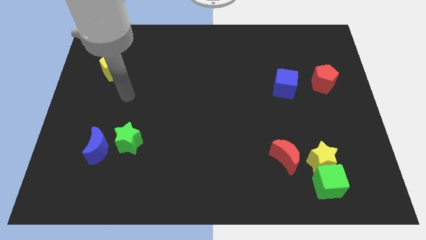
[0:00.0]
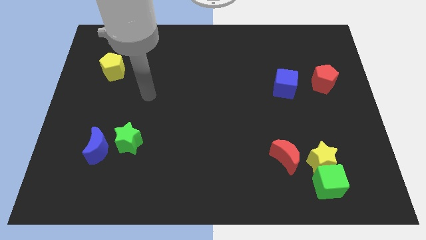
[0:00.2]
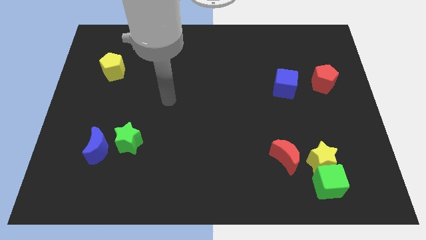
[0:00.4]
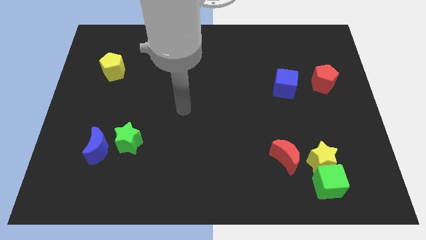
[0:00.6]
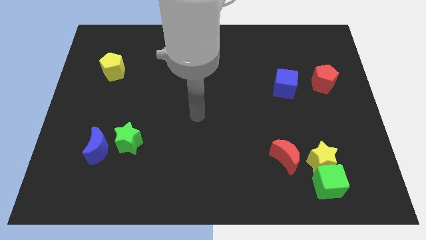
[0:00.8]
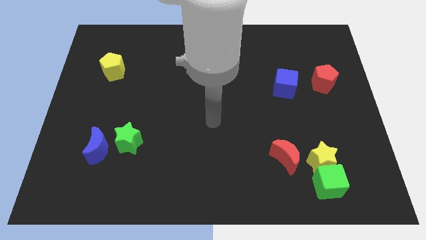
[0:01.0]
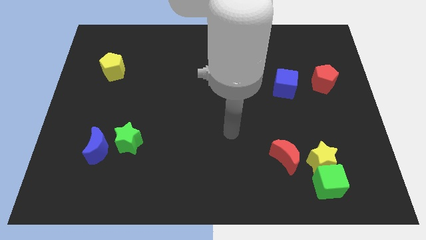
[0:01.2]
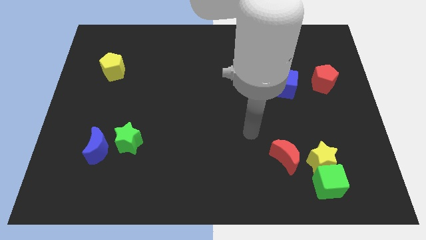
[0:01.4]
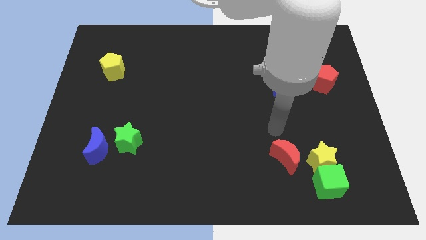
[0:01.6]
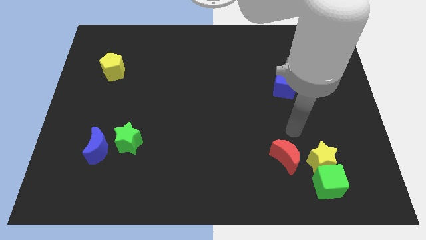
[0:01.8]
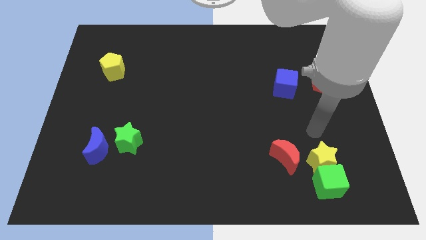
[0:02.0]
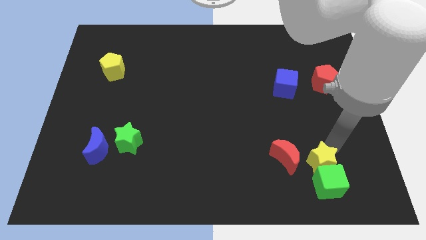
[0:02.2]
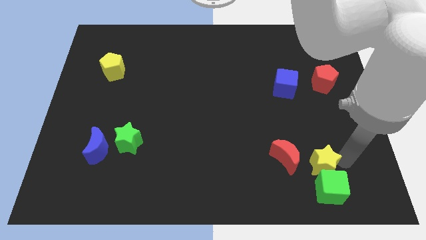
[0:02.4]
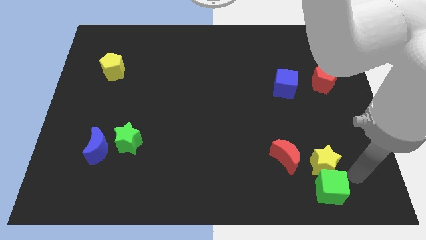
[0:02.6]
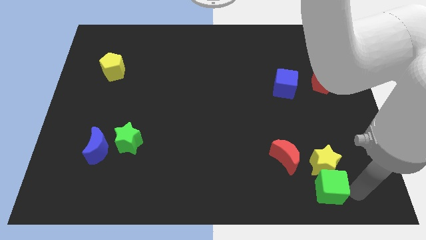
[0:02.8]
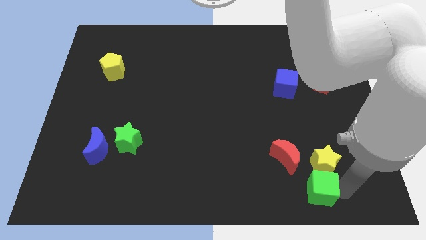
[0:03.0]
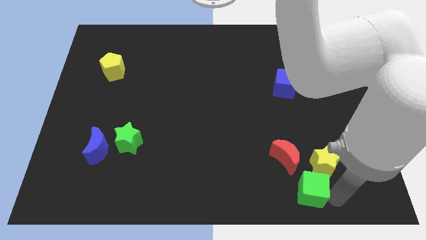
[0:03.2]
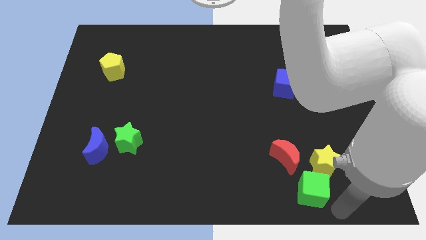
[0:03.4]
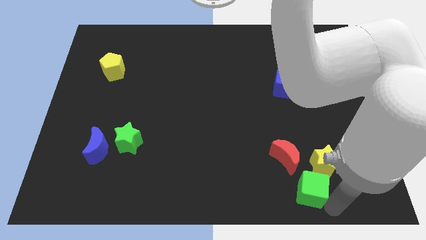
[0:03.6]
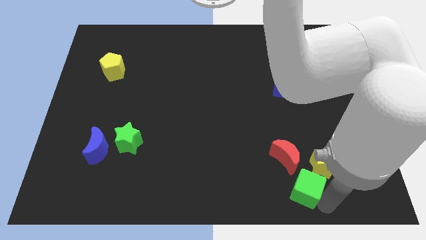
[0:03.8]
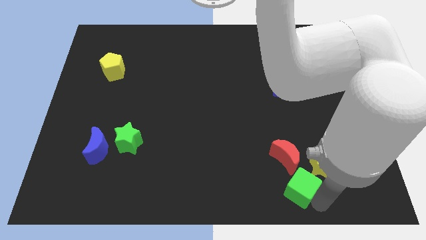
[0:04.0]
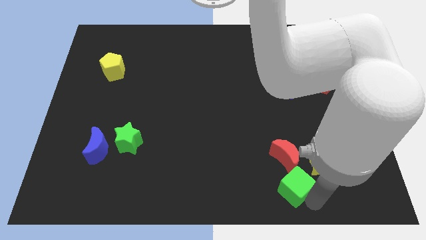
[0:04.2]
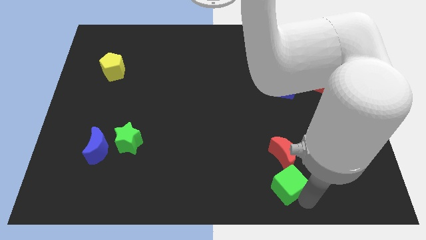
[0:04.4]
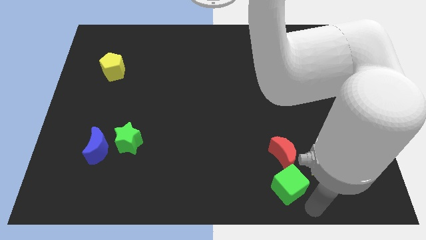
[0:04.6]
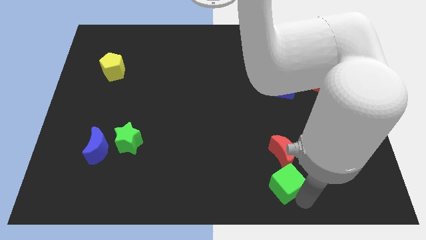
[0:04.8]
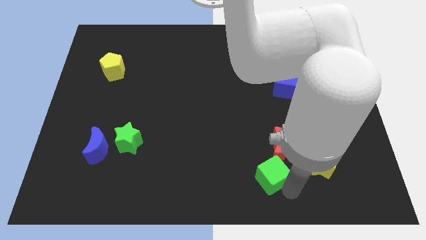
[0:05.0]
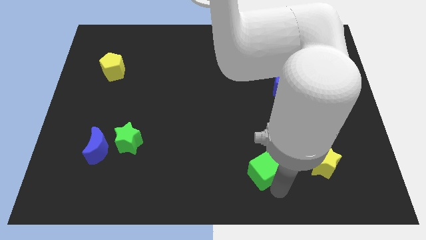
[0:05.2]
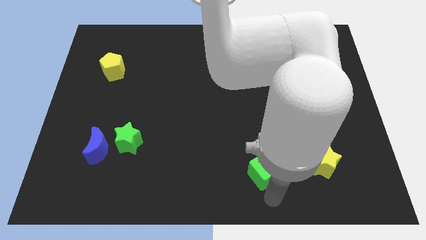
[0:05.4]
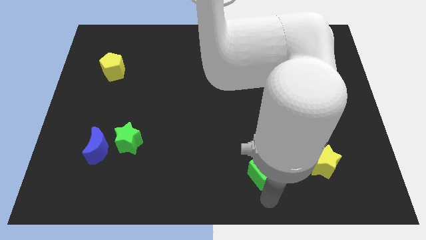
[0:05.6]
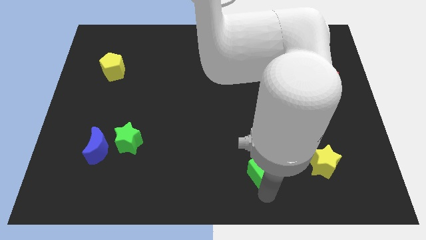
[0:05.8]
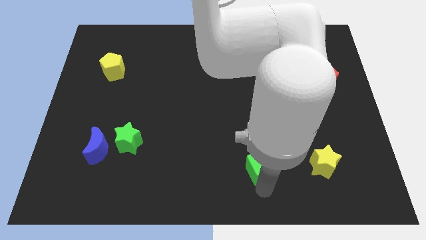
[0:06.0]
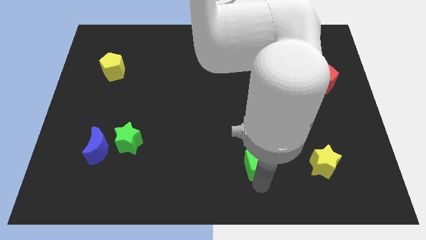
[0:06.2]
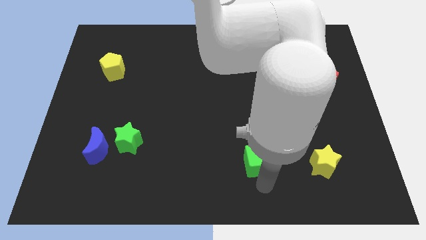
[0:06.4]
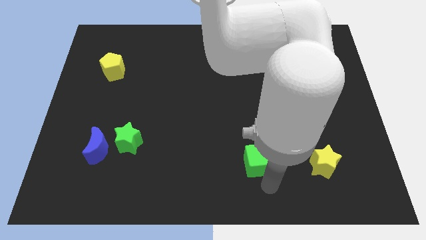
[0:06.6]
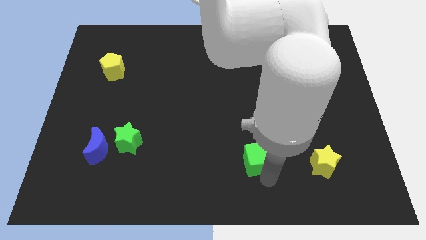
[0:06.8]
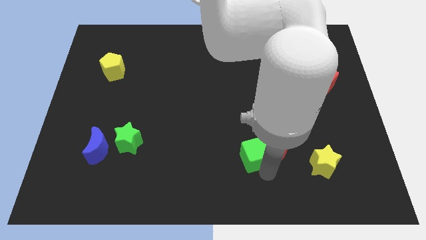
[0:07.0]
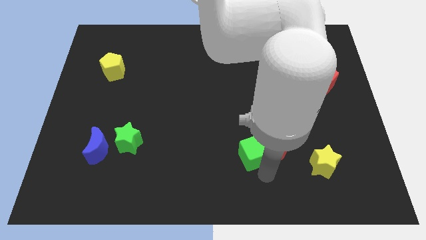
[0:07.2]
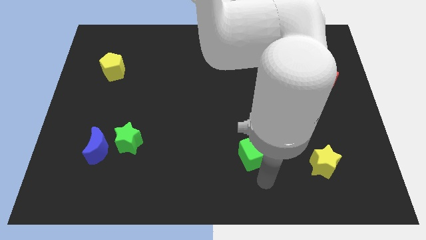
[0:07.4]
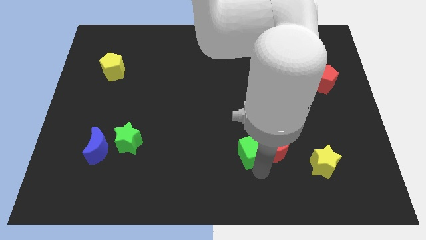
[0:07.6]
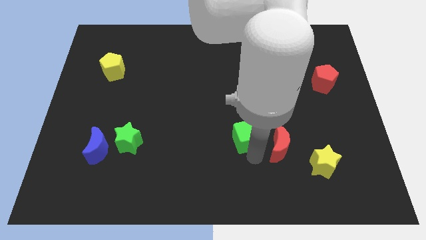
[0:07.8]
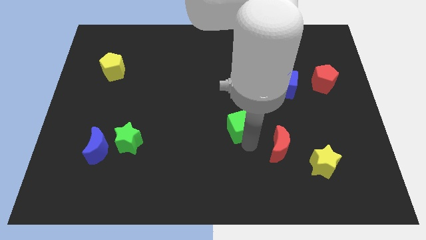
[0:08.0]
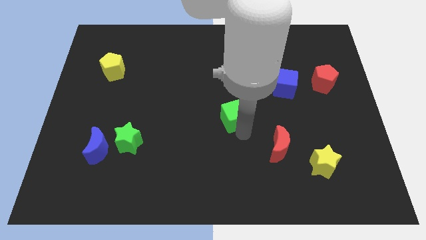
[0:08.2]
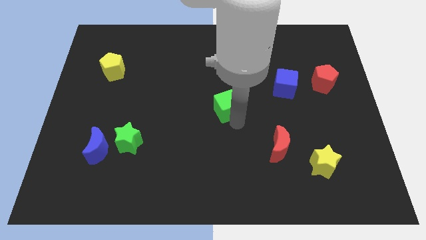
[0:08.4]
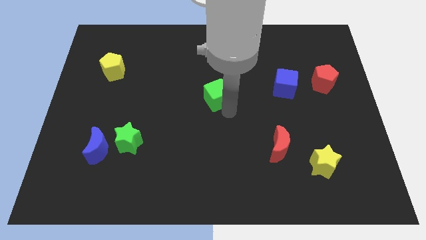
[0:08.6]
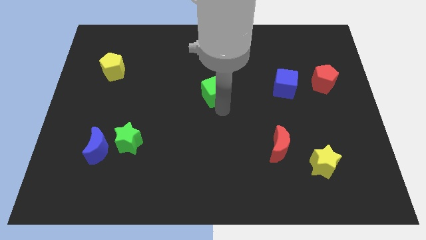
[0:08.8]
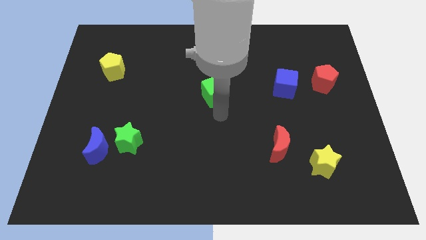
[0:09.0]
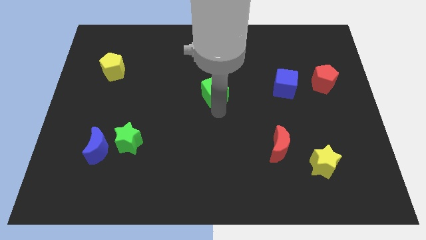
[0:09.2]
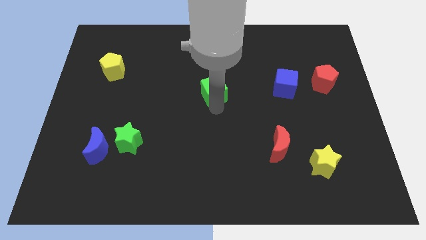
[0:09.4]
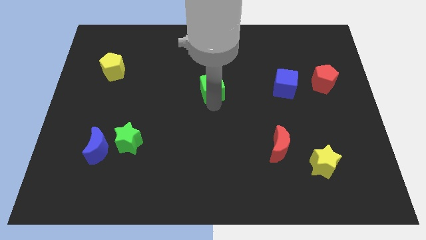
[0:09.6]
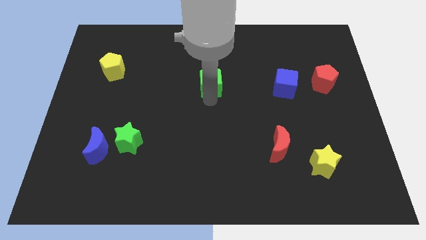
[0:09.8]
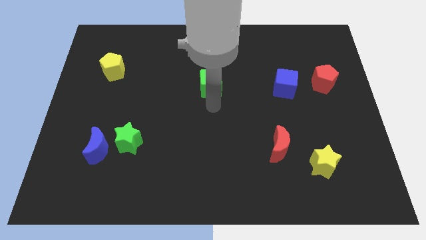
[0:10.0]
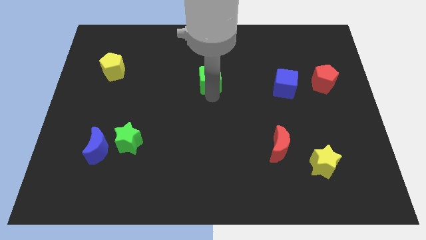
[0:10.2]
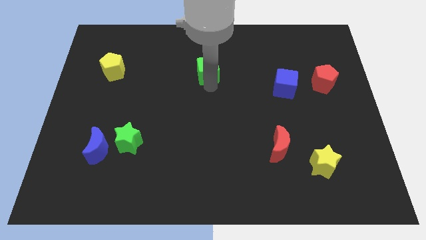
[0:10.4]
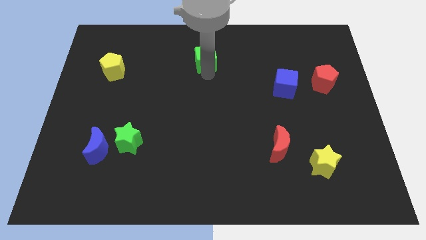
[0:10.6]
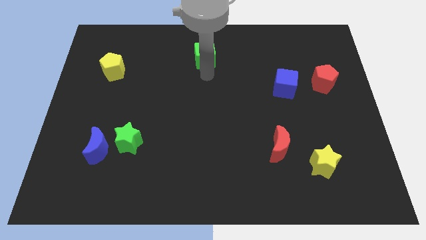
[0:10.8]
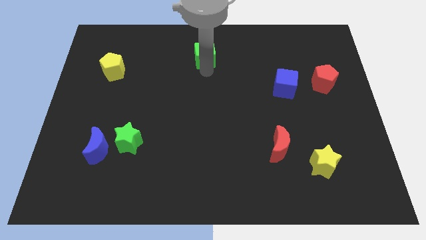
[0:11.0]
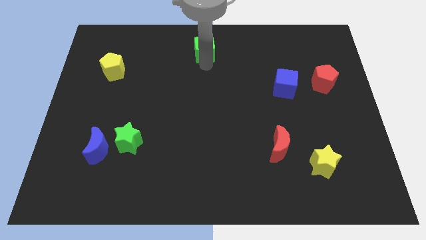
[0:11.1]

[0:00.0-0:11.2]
slide the green cube to the top side
